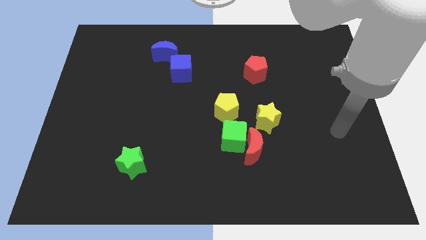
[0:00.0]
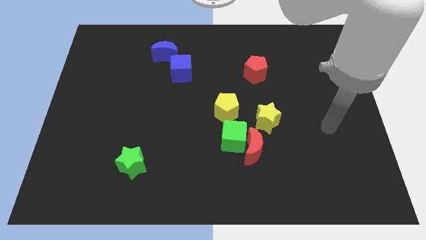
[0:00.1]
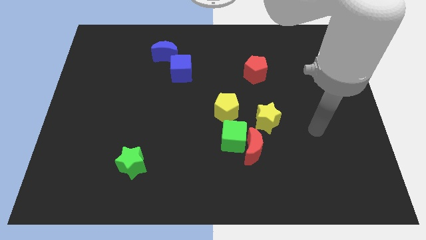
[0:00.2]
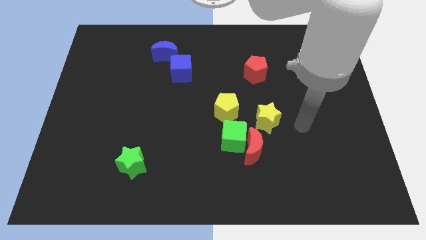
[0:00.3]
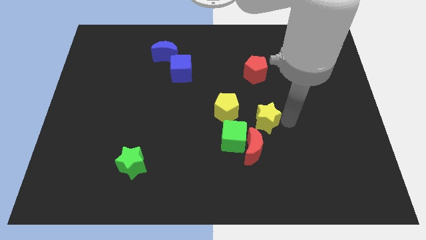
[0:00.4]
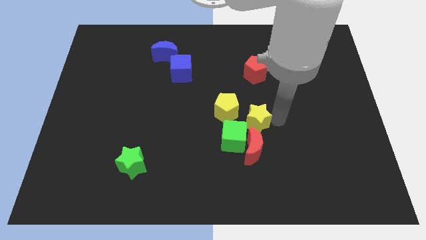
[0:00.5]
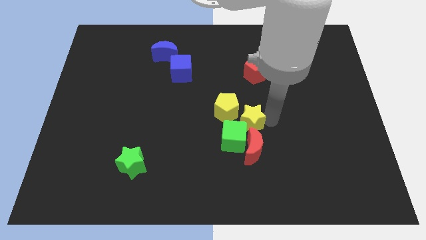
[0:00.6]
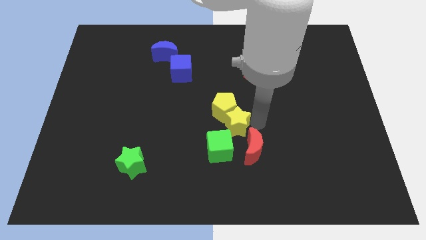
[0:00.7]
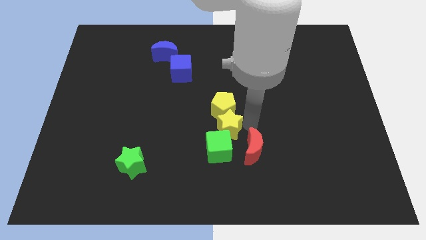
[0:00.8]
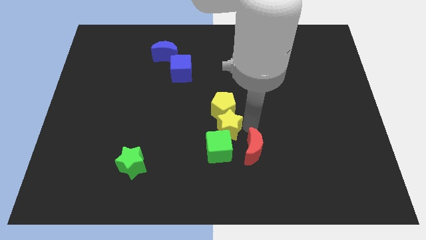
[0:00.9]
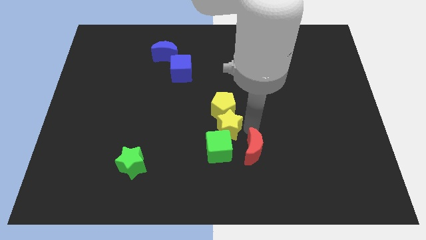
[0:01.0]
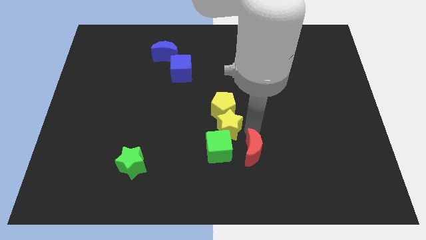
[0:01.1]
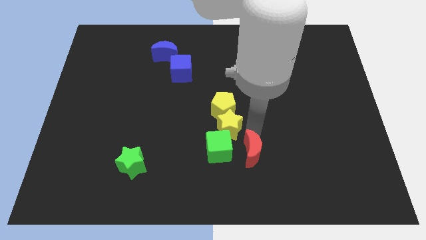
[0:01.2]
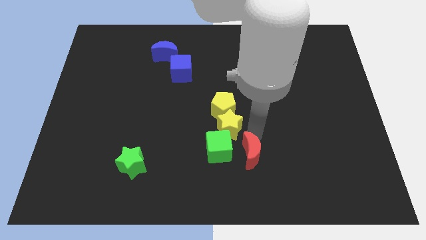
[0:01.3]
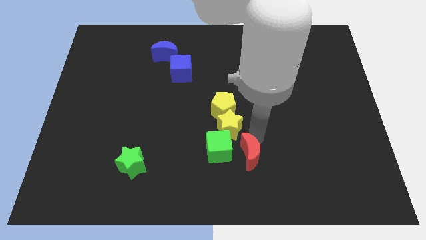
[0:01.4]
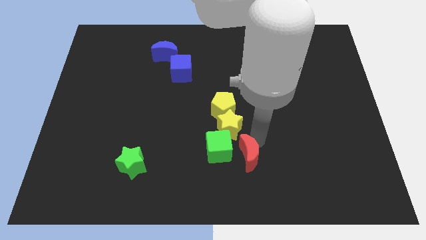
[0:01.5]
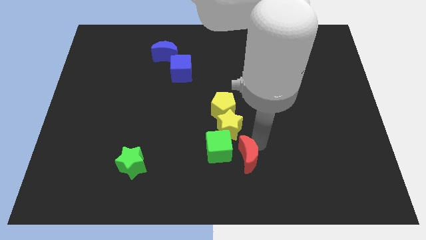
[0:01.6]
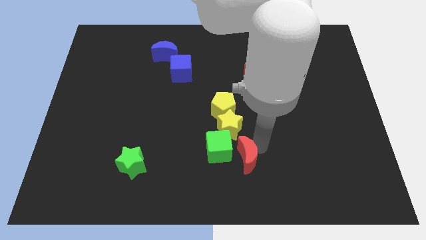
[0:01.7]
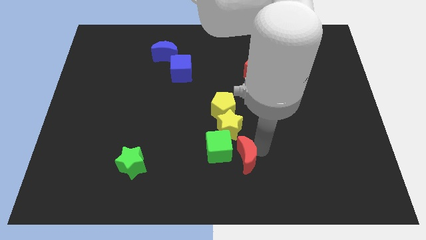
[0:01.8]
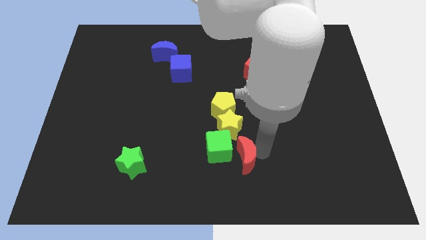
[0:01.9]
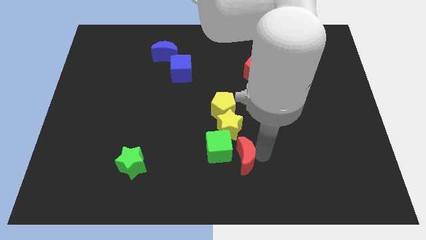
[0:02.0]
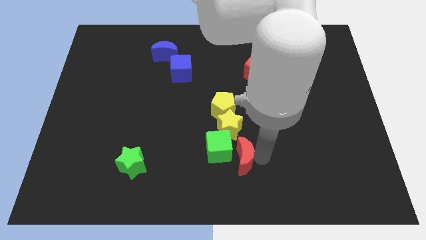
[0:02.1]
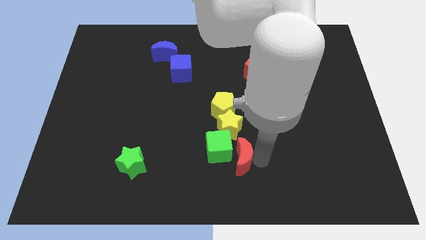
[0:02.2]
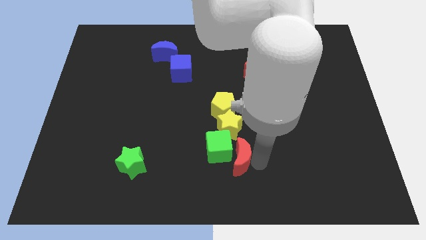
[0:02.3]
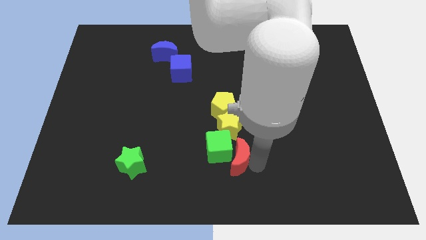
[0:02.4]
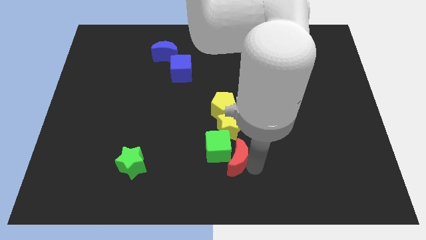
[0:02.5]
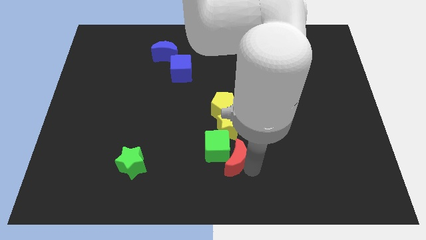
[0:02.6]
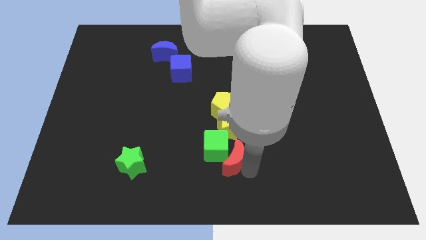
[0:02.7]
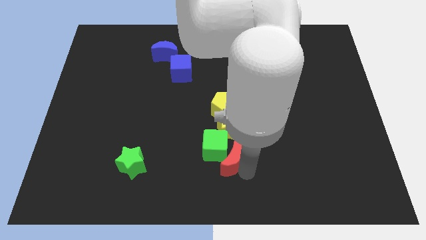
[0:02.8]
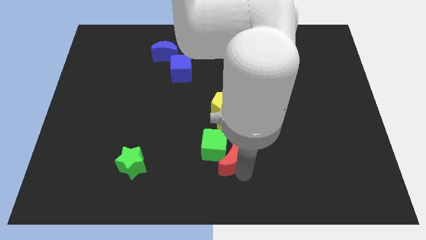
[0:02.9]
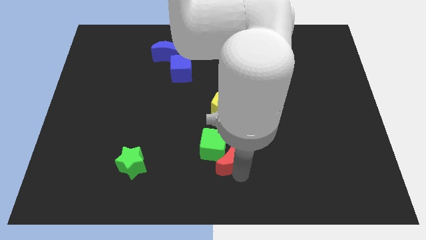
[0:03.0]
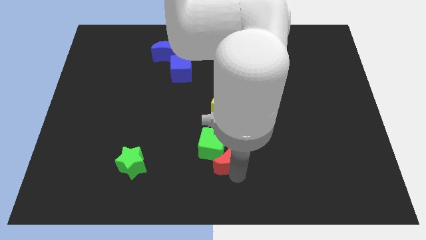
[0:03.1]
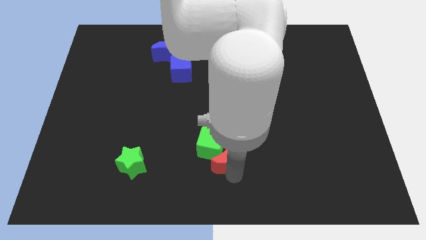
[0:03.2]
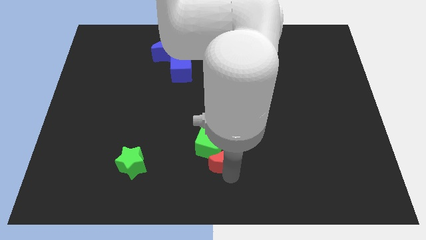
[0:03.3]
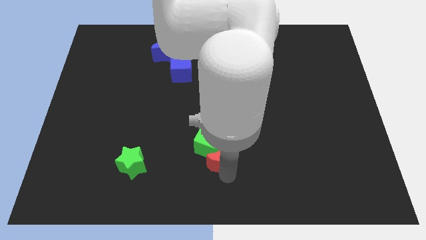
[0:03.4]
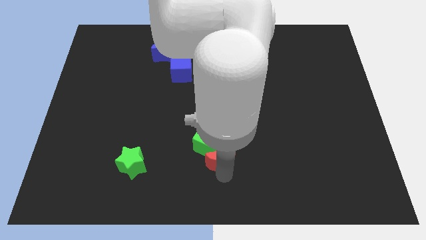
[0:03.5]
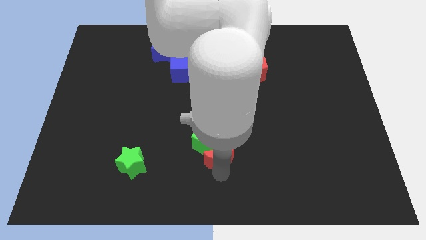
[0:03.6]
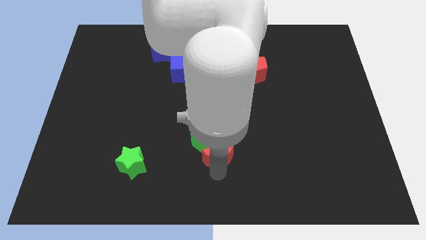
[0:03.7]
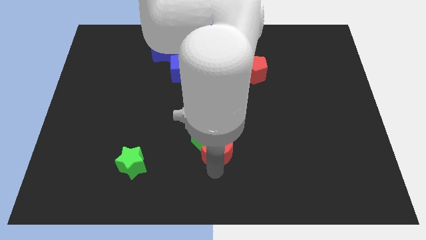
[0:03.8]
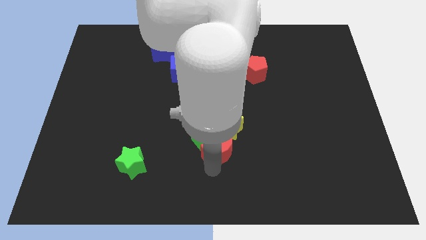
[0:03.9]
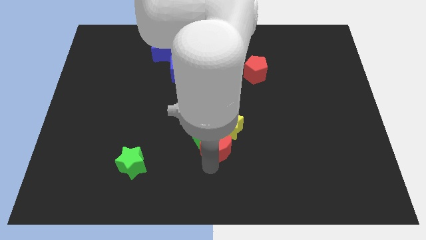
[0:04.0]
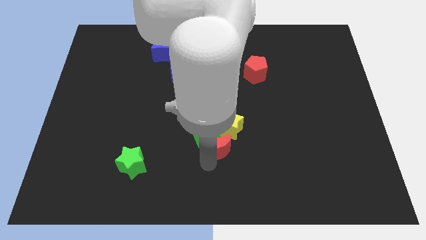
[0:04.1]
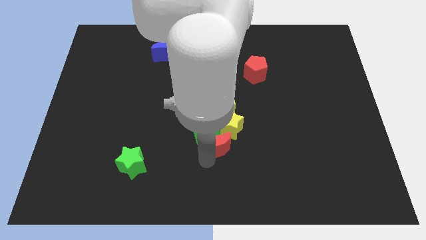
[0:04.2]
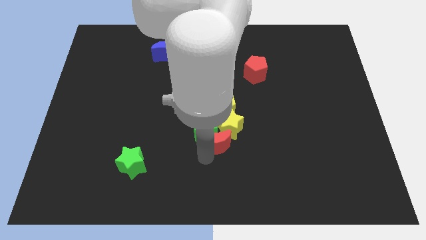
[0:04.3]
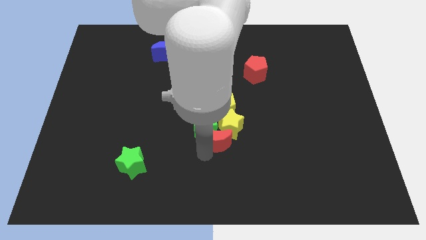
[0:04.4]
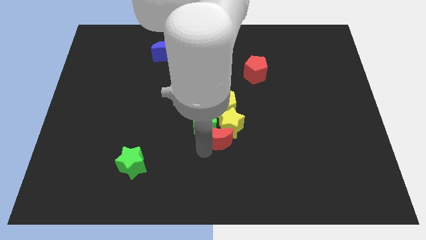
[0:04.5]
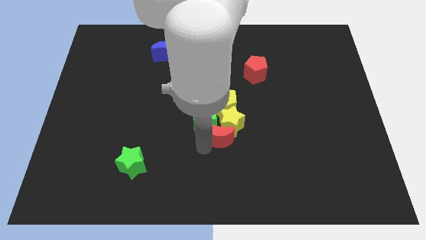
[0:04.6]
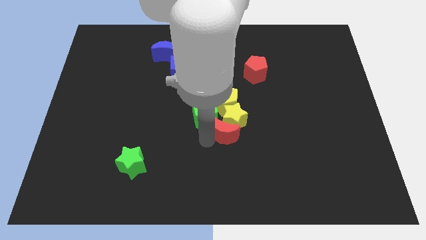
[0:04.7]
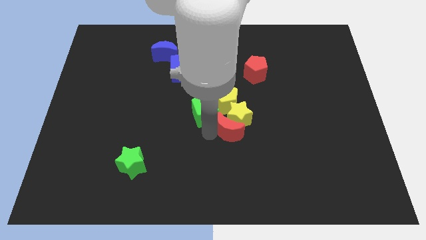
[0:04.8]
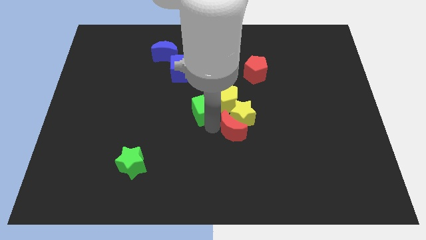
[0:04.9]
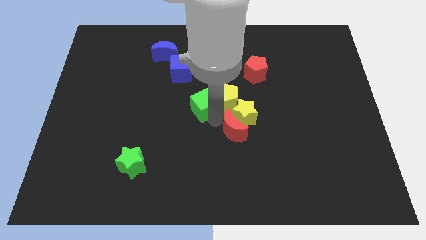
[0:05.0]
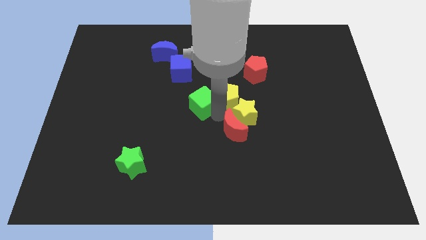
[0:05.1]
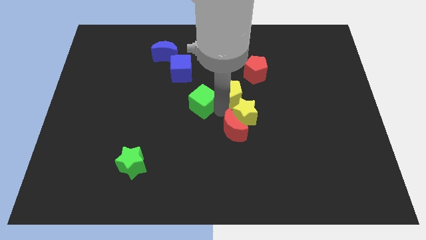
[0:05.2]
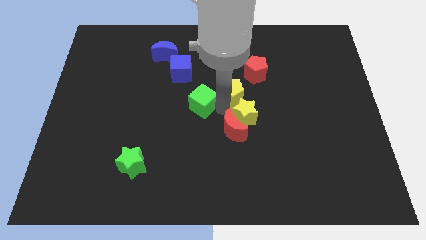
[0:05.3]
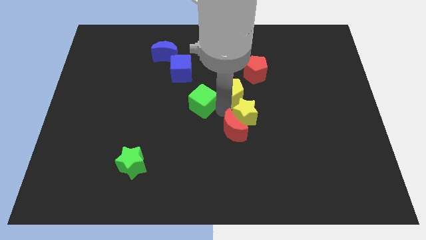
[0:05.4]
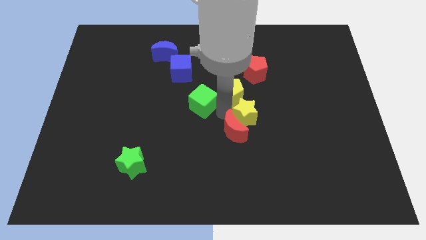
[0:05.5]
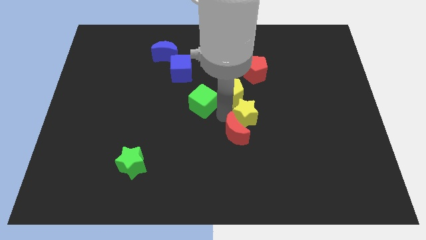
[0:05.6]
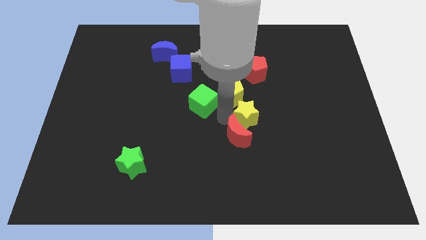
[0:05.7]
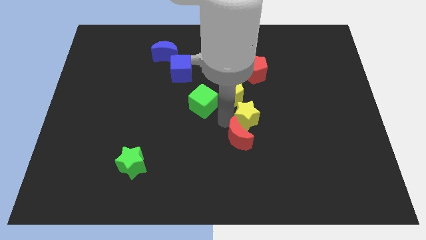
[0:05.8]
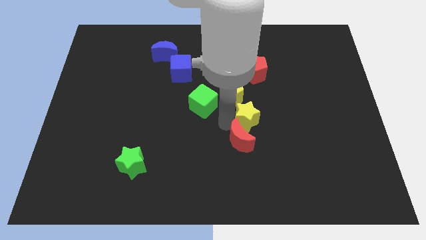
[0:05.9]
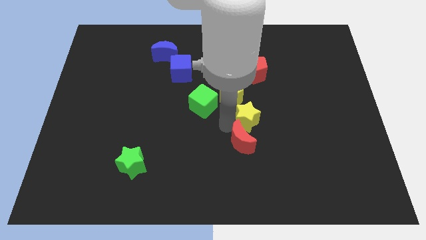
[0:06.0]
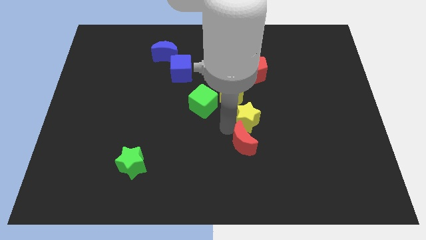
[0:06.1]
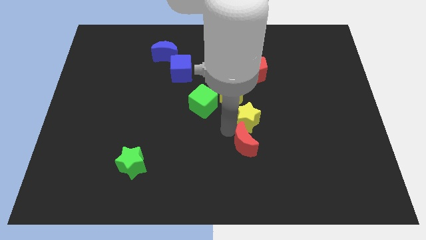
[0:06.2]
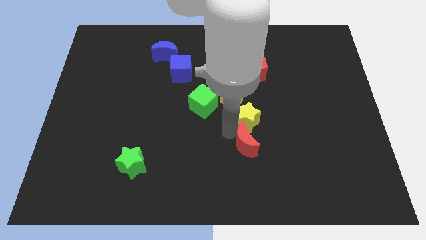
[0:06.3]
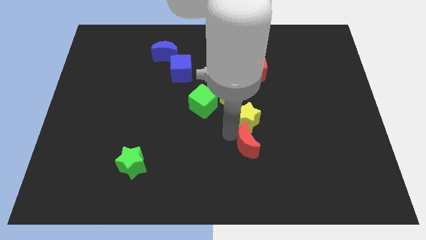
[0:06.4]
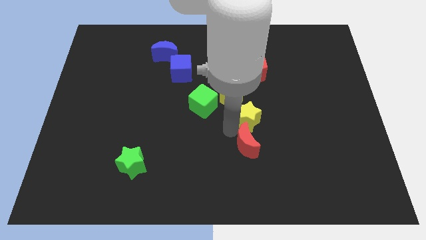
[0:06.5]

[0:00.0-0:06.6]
separate the red moon from the green cube and yellow star

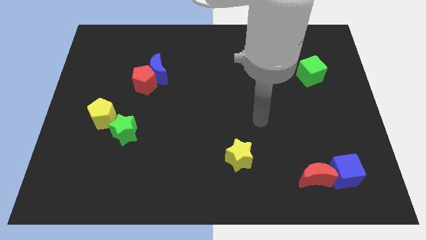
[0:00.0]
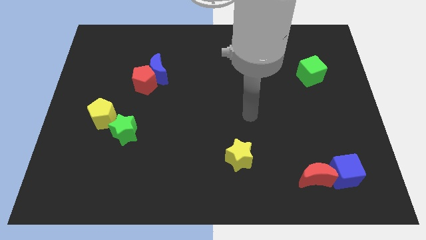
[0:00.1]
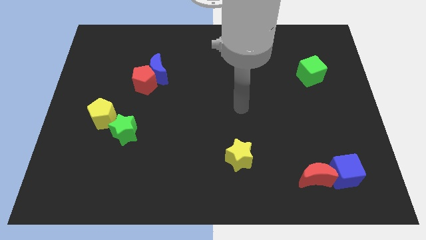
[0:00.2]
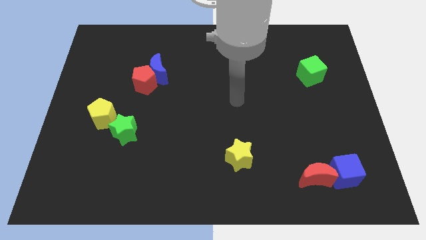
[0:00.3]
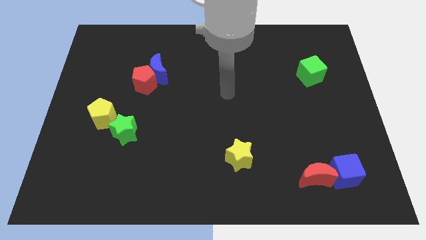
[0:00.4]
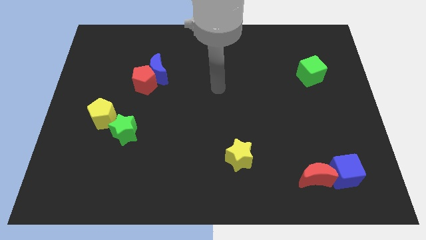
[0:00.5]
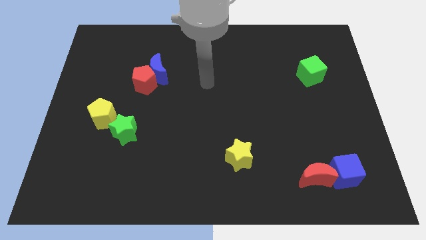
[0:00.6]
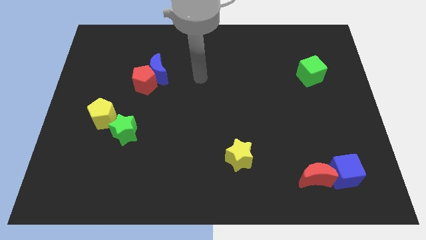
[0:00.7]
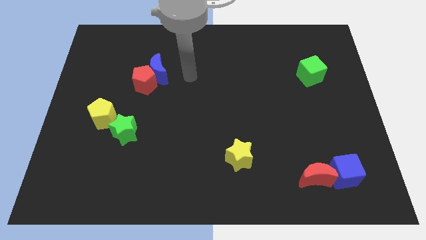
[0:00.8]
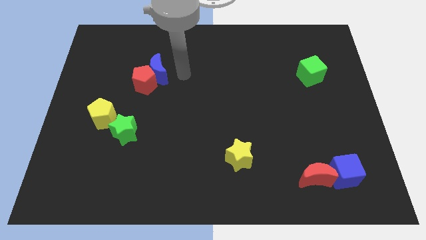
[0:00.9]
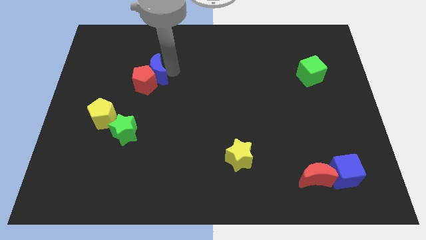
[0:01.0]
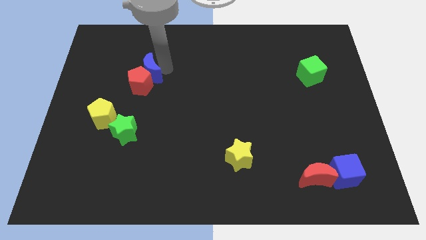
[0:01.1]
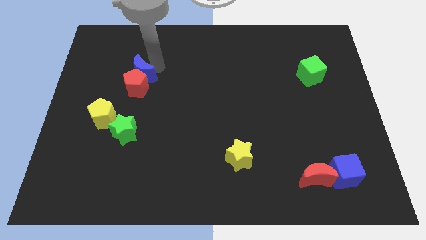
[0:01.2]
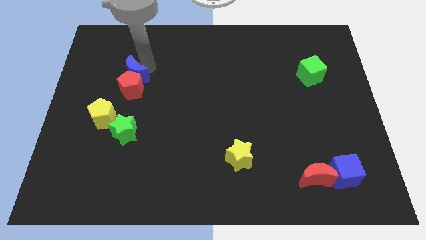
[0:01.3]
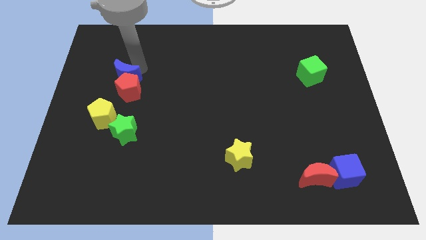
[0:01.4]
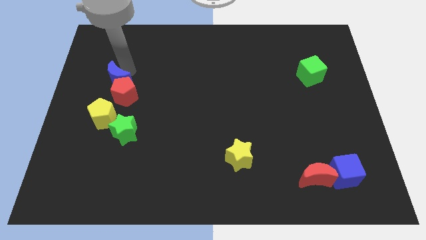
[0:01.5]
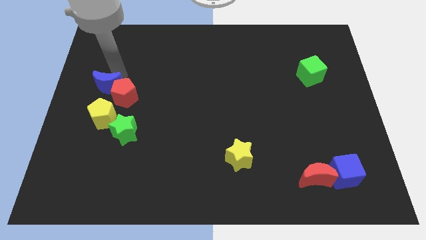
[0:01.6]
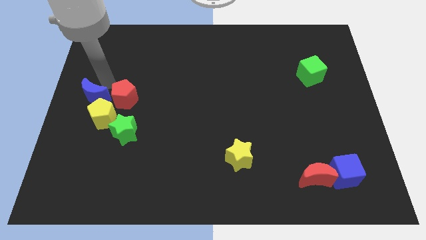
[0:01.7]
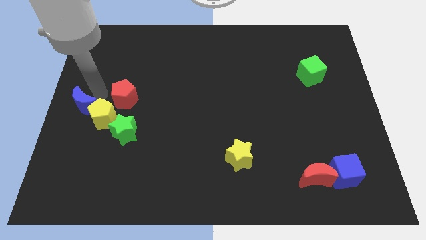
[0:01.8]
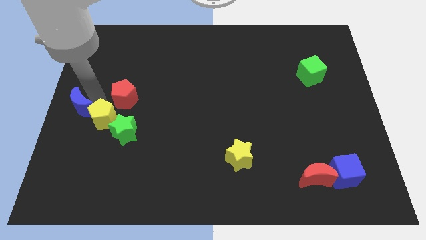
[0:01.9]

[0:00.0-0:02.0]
move the red pentagon away from the blue moon

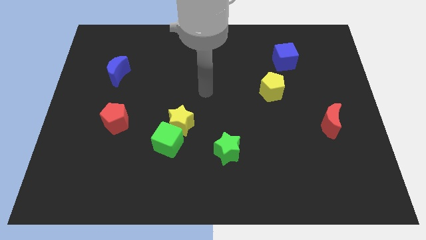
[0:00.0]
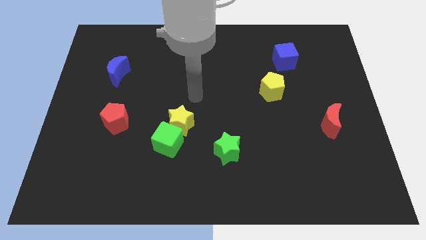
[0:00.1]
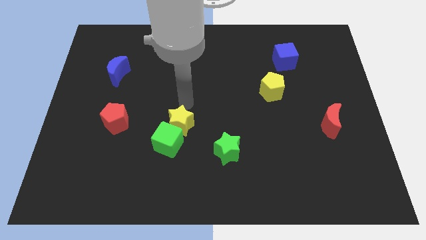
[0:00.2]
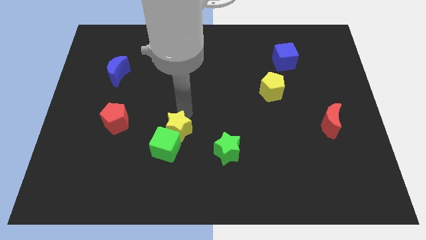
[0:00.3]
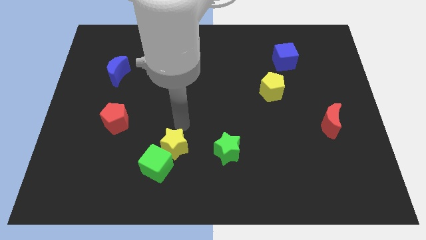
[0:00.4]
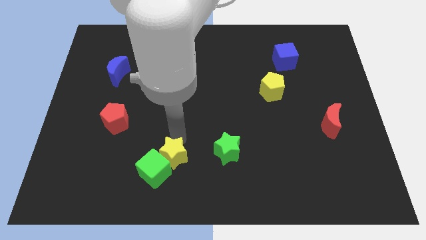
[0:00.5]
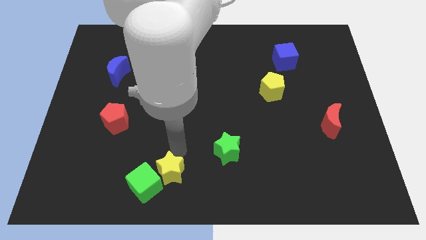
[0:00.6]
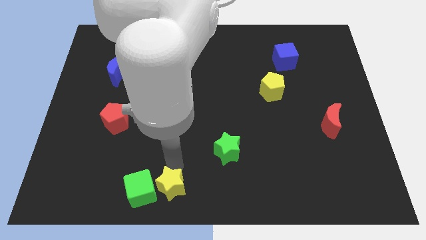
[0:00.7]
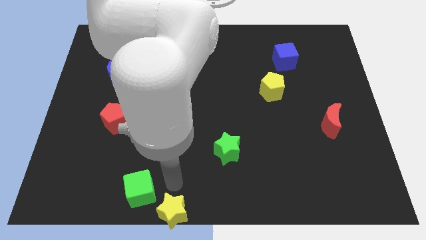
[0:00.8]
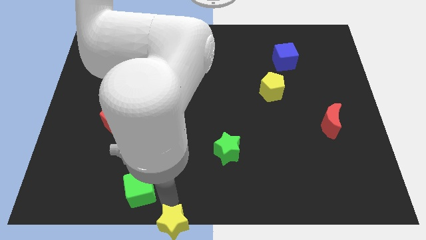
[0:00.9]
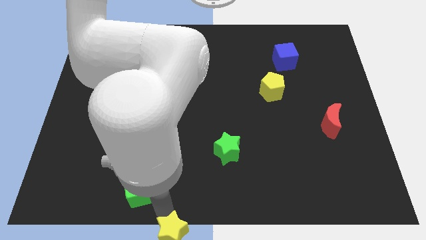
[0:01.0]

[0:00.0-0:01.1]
separate the green cube from the yellow star
